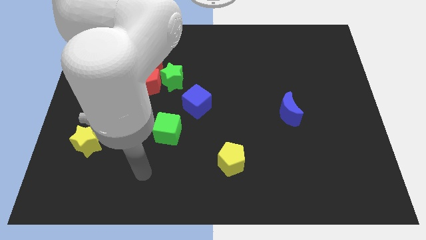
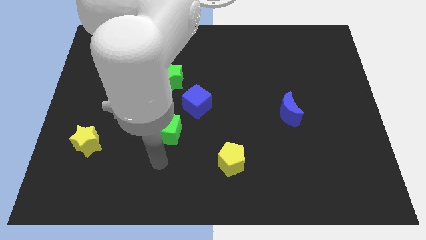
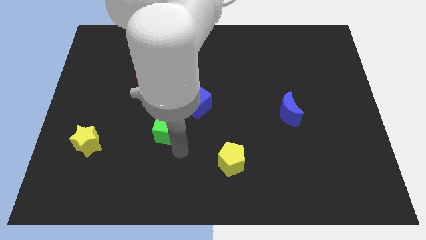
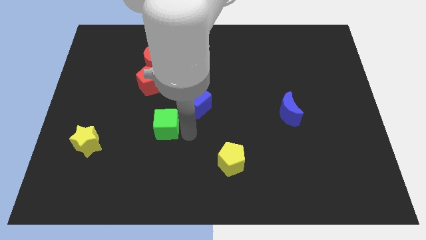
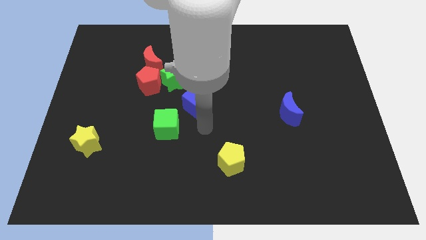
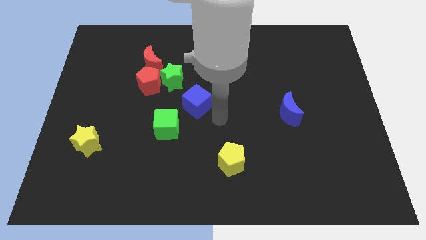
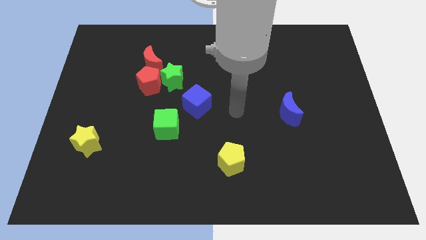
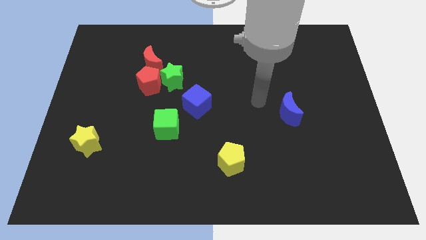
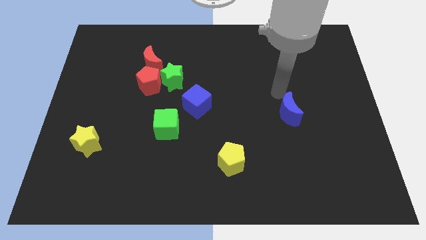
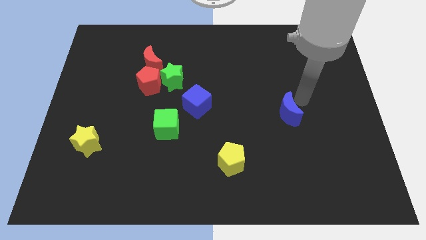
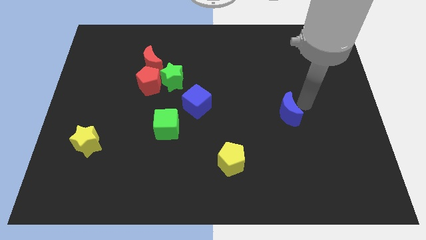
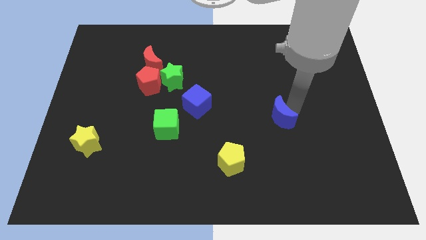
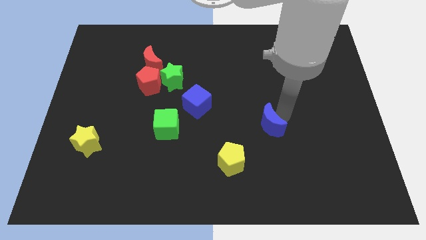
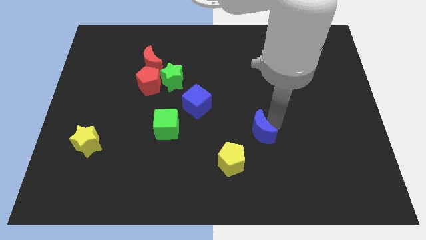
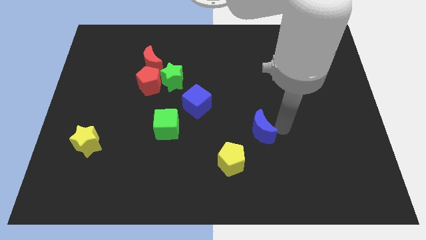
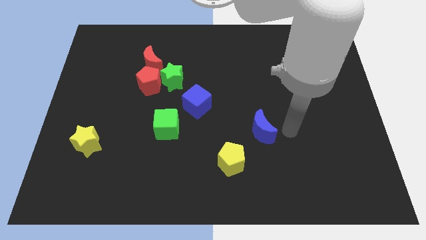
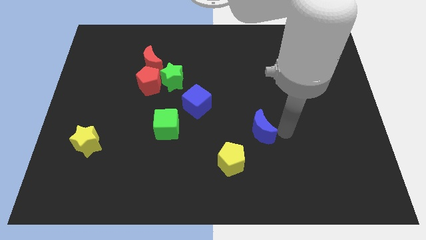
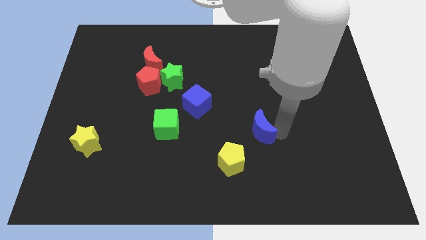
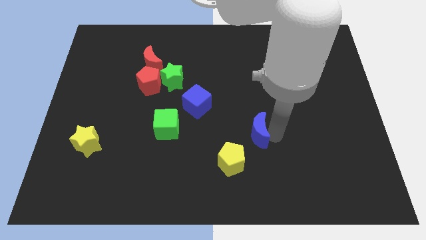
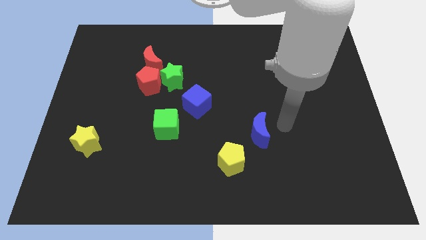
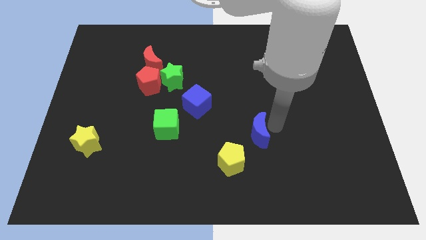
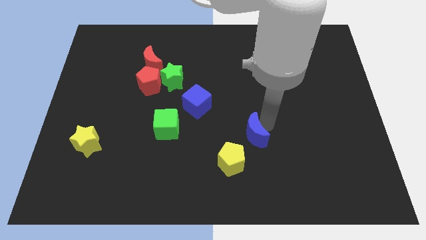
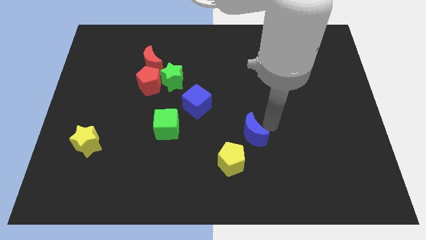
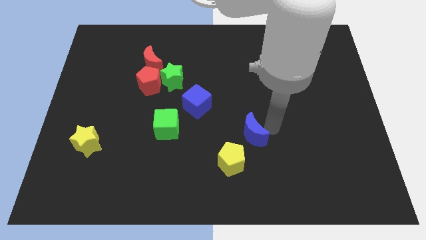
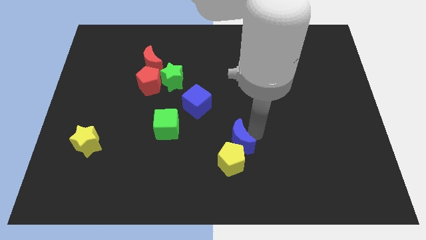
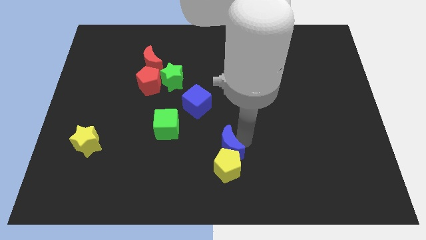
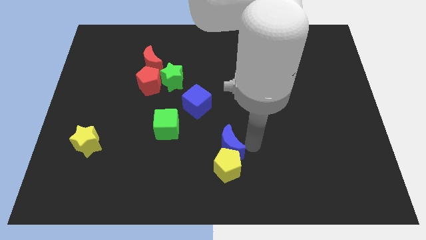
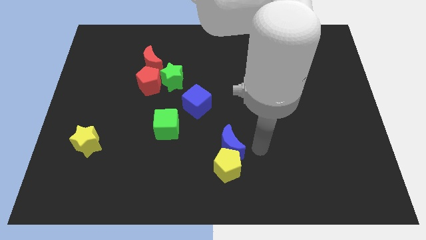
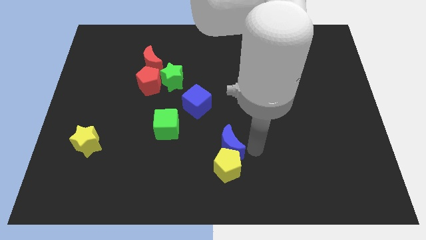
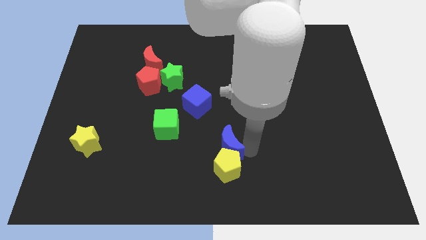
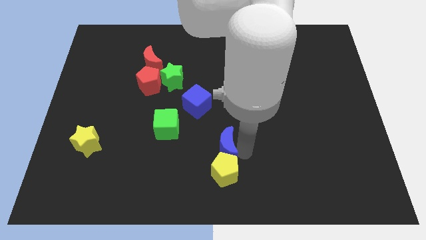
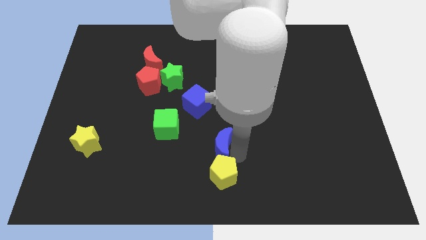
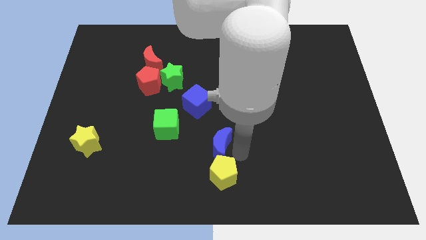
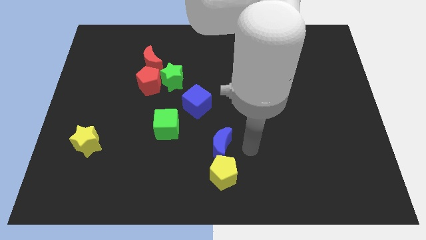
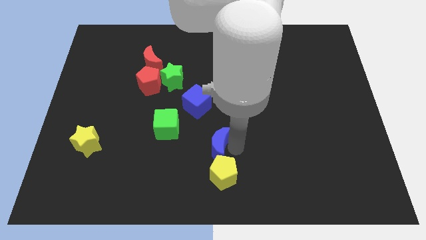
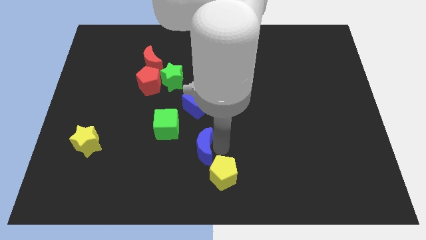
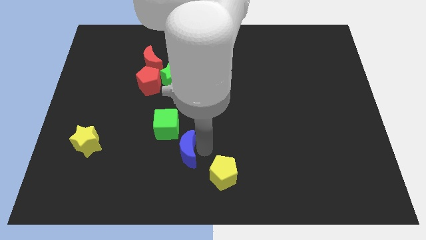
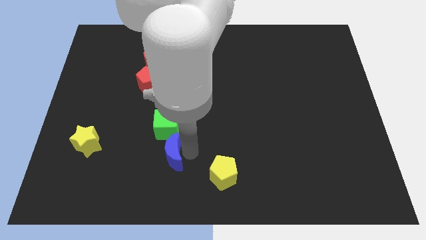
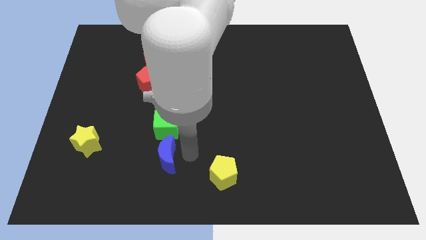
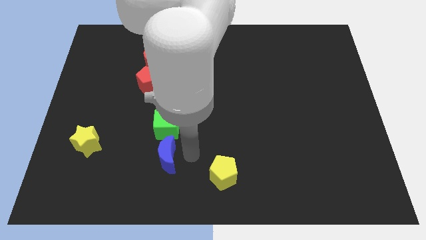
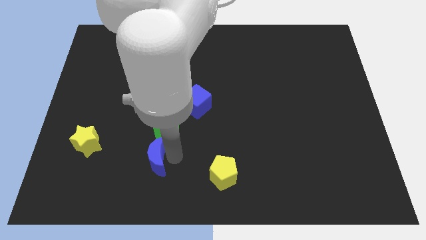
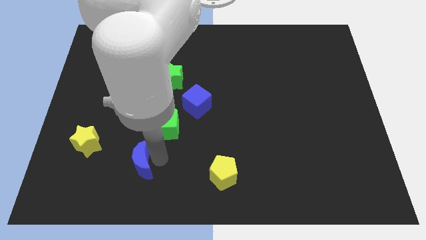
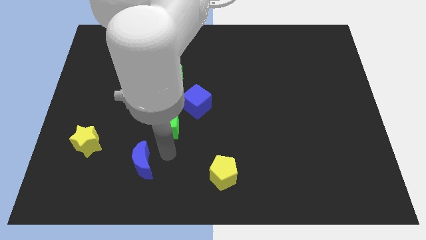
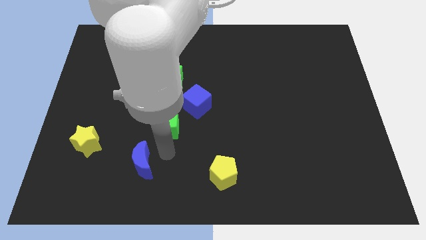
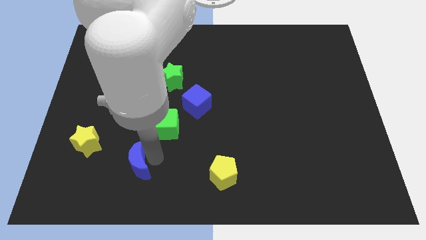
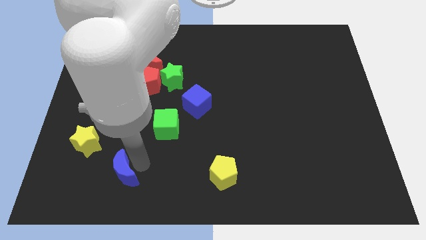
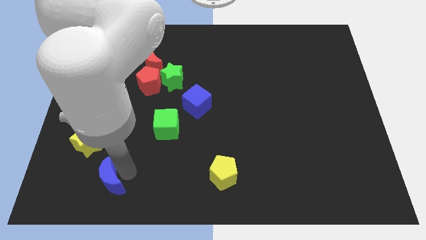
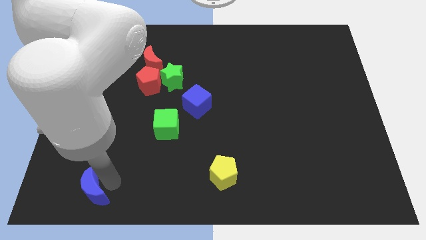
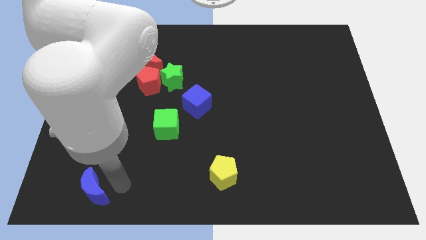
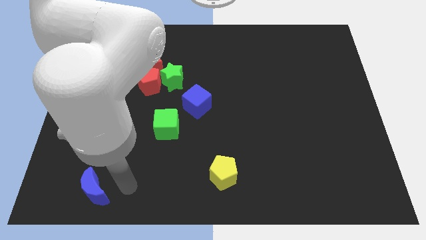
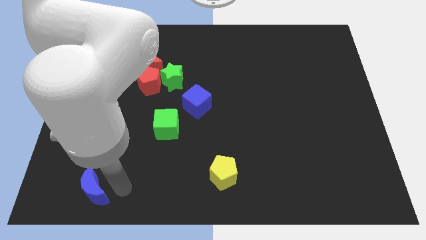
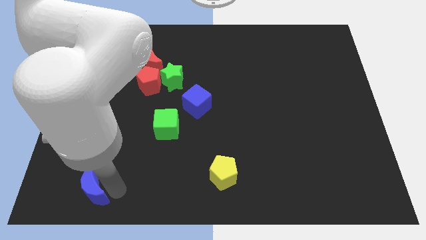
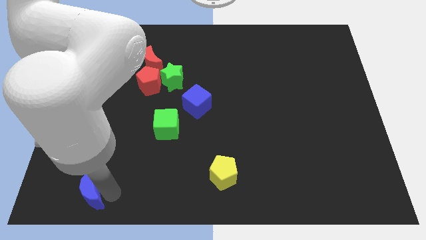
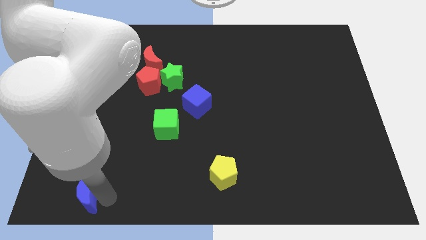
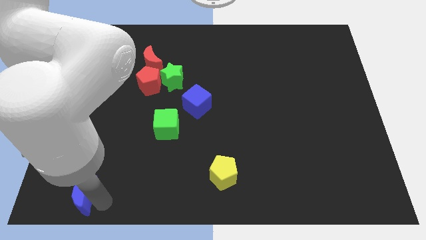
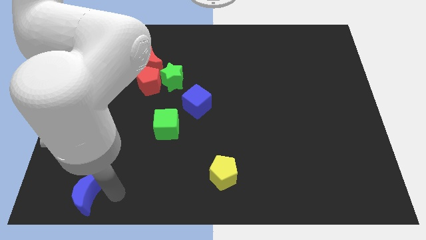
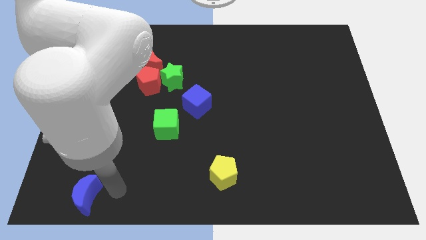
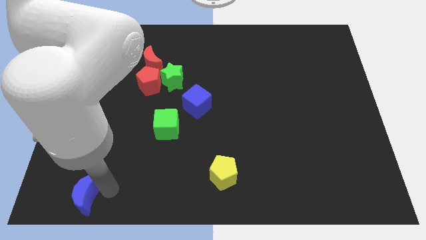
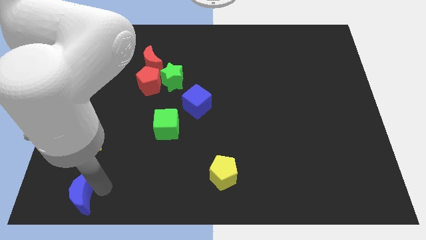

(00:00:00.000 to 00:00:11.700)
push the blue moon to the bottom left corner

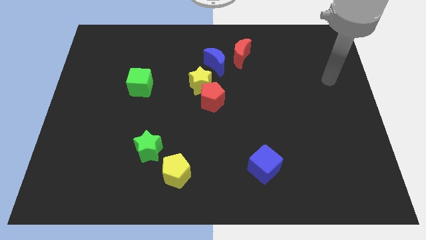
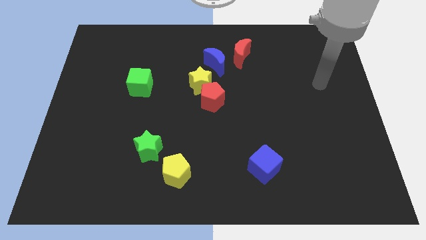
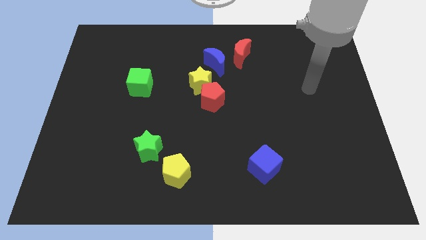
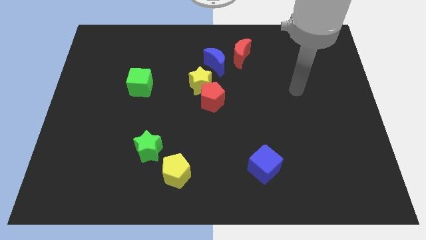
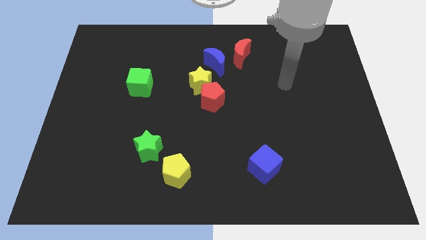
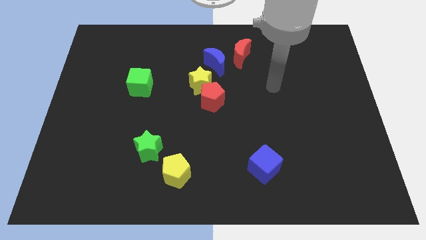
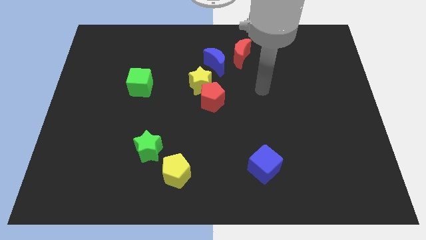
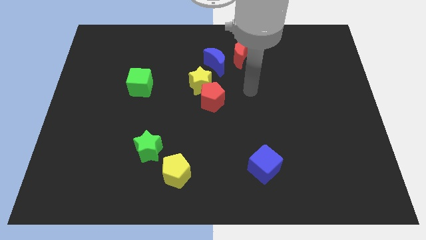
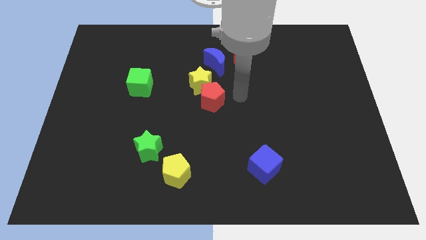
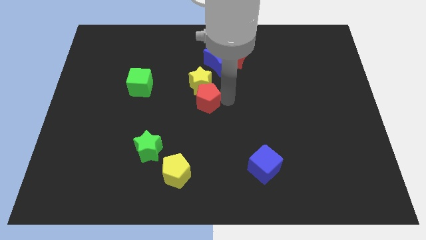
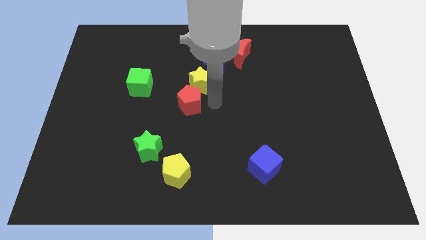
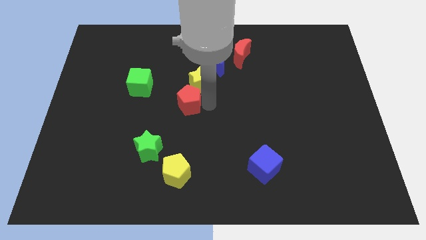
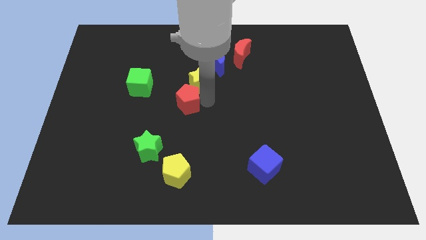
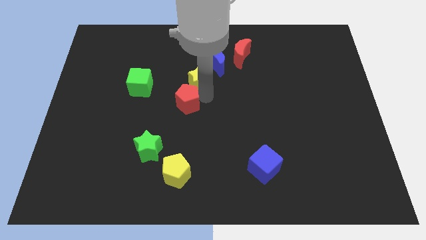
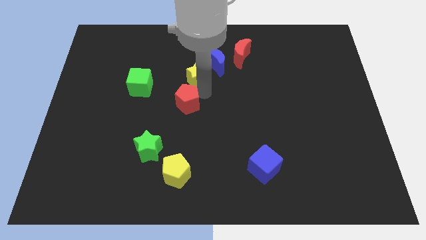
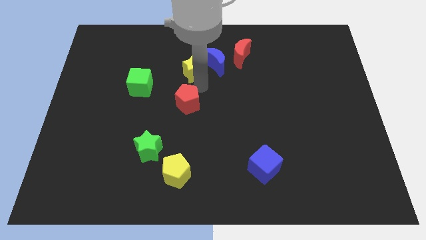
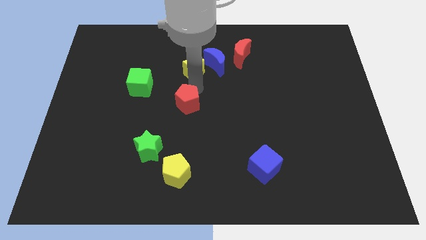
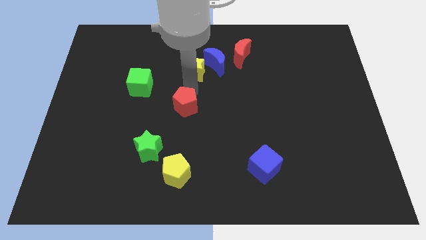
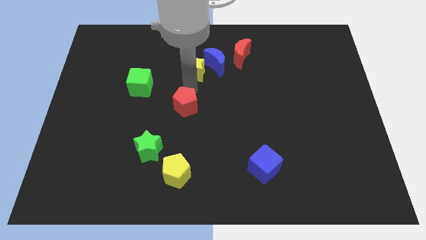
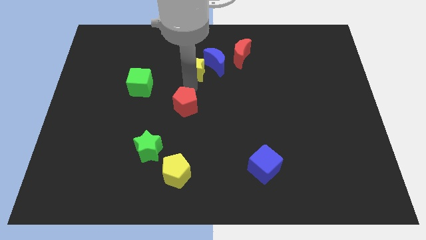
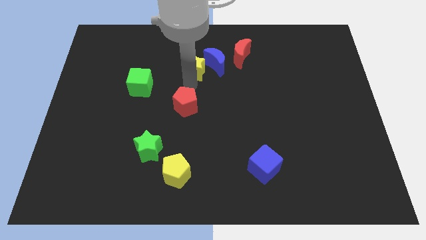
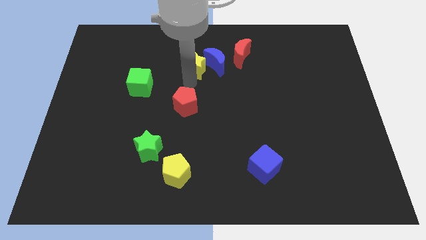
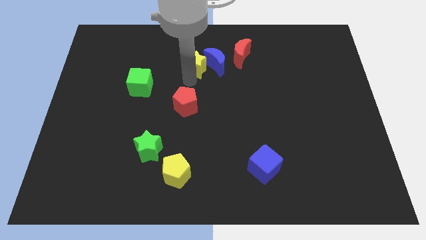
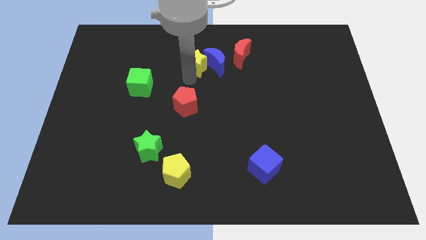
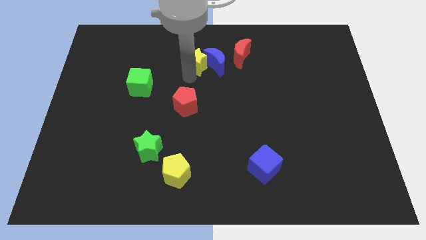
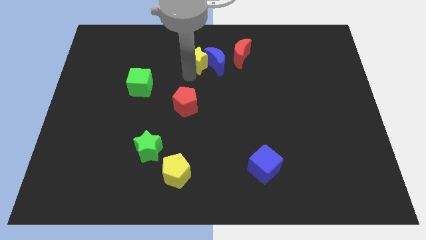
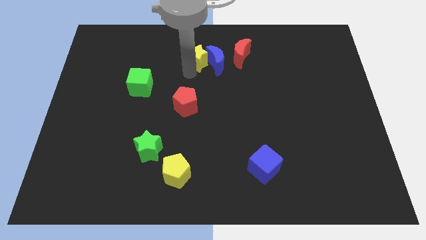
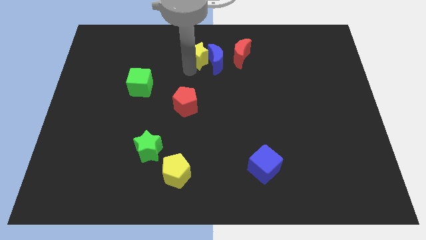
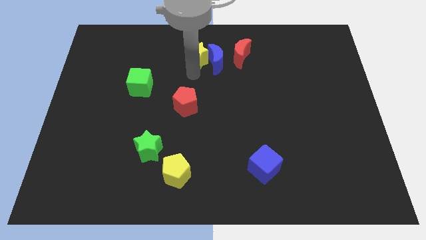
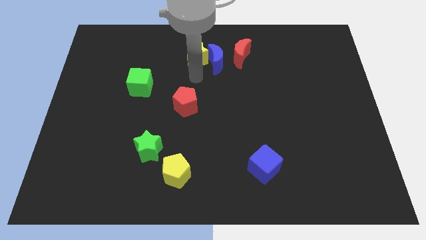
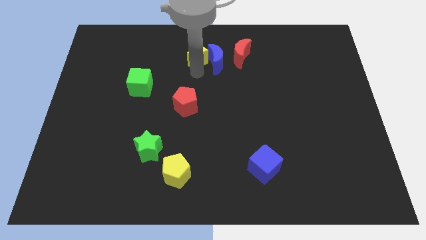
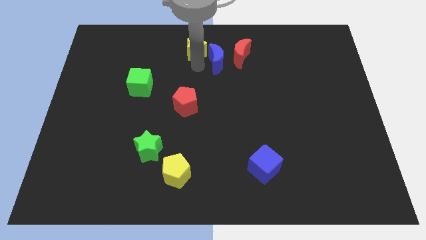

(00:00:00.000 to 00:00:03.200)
put the yellow star to the top side
